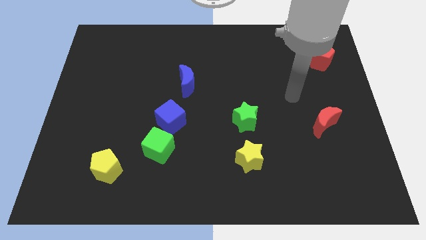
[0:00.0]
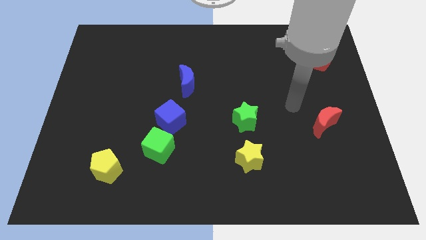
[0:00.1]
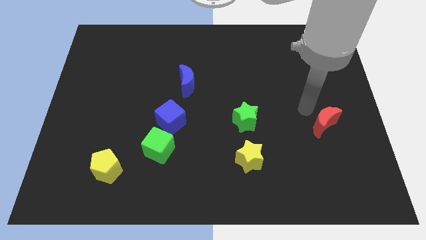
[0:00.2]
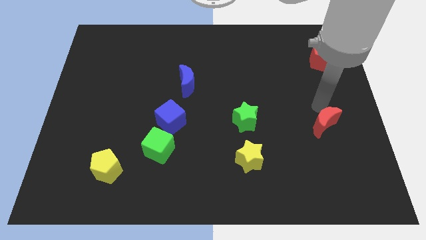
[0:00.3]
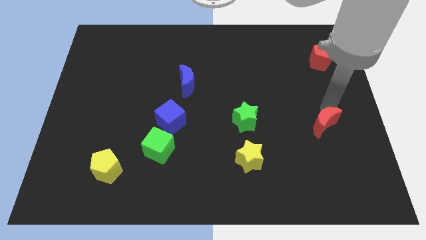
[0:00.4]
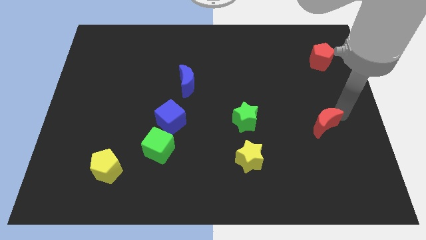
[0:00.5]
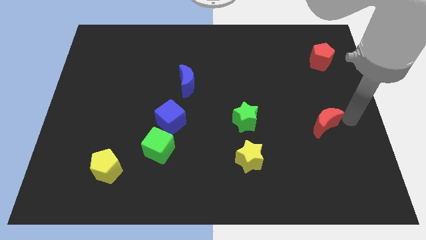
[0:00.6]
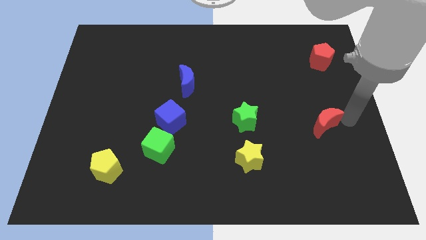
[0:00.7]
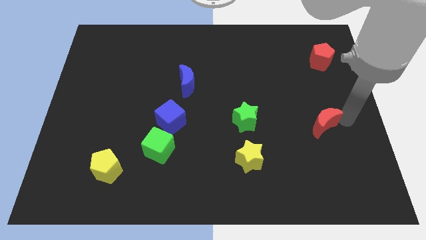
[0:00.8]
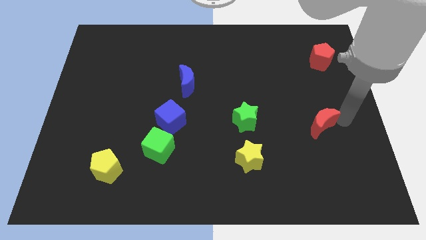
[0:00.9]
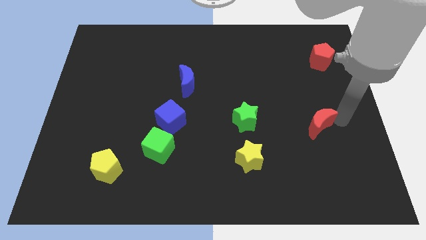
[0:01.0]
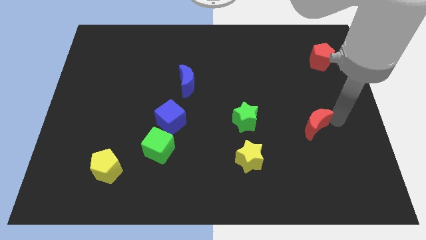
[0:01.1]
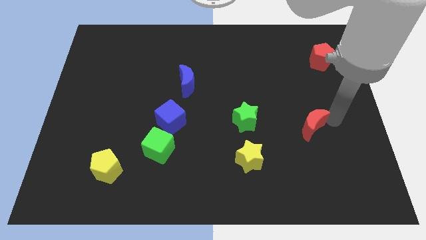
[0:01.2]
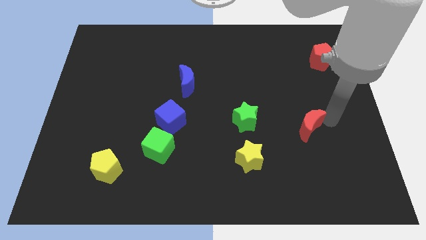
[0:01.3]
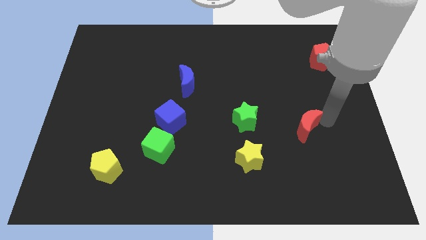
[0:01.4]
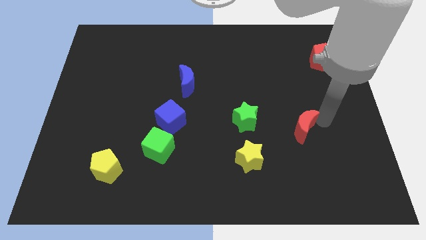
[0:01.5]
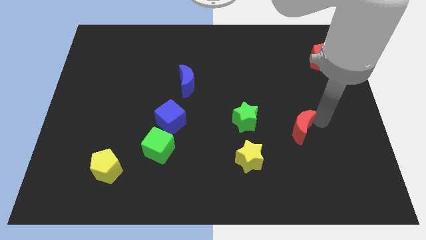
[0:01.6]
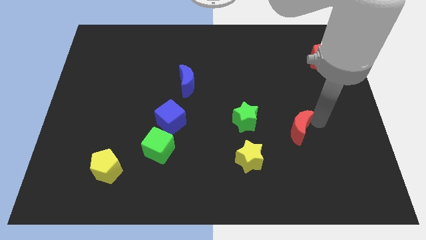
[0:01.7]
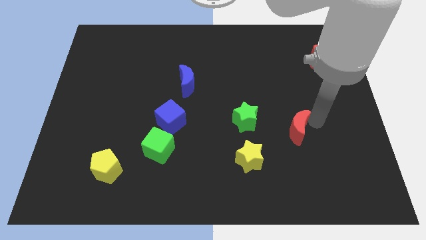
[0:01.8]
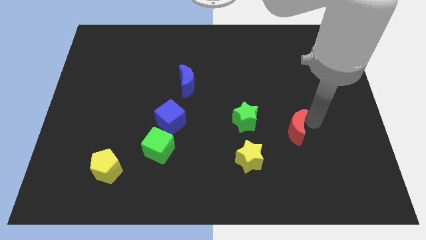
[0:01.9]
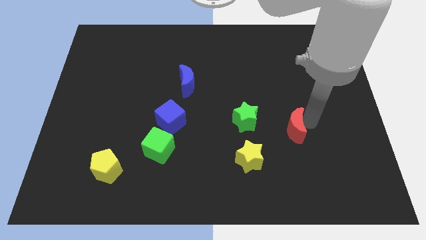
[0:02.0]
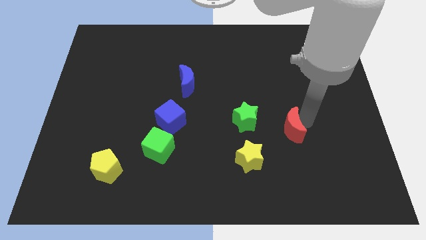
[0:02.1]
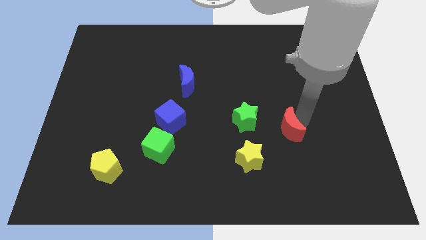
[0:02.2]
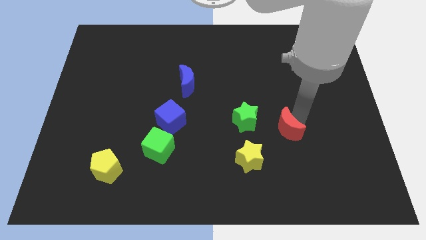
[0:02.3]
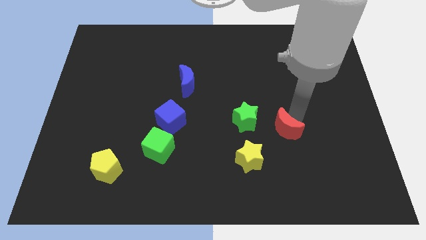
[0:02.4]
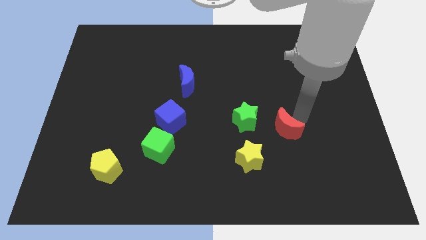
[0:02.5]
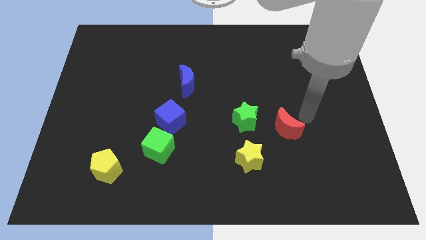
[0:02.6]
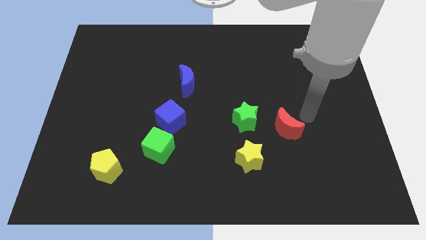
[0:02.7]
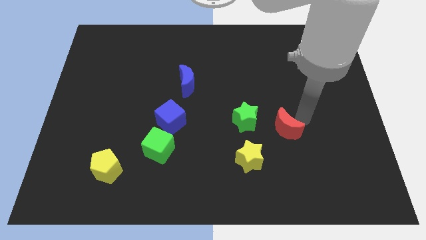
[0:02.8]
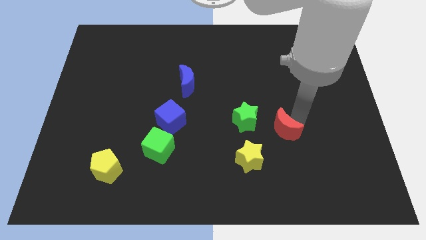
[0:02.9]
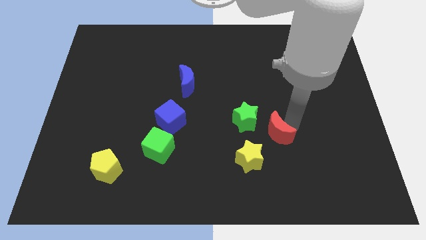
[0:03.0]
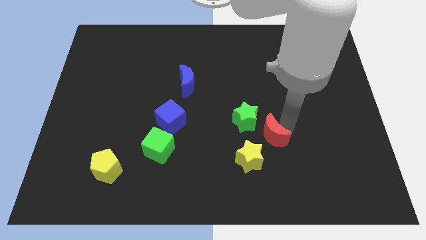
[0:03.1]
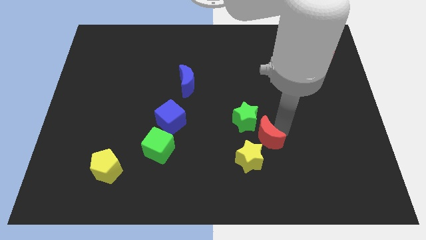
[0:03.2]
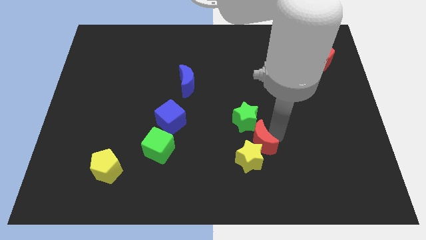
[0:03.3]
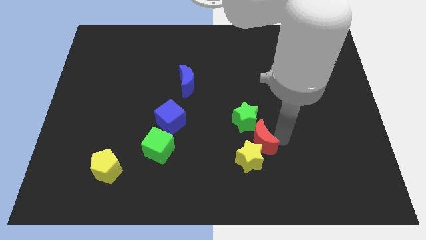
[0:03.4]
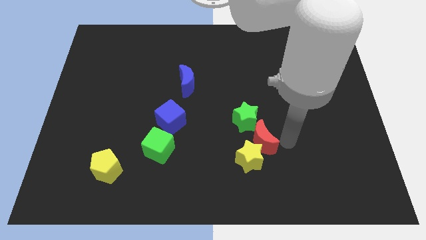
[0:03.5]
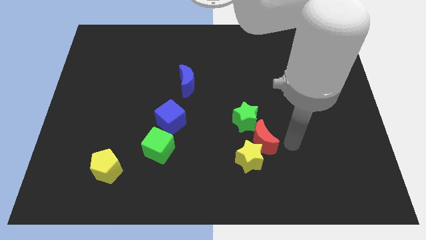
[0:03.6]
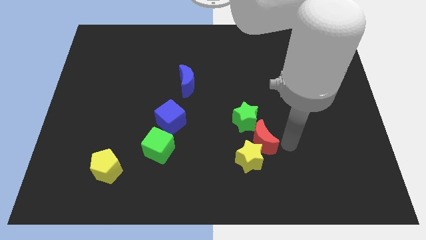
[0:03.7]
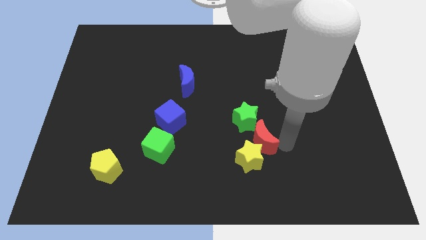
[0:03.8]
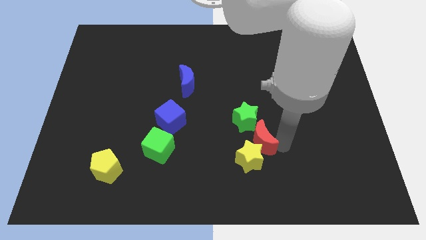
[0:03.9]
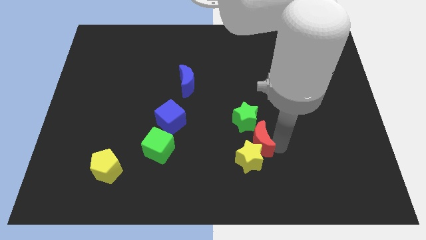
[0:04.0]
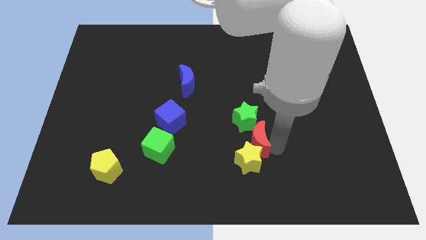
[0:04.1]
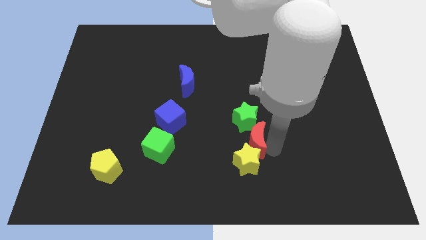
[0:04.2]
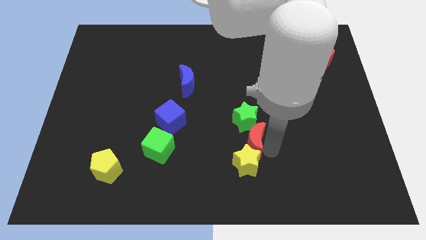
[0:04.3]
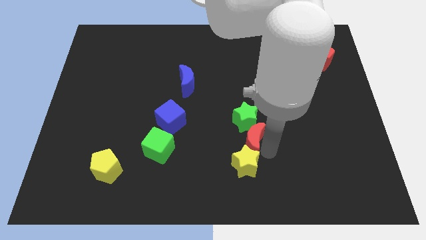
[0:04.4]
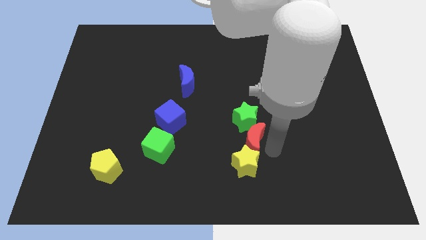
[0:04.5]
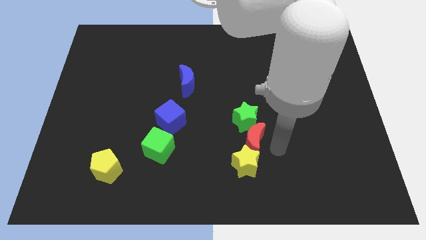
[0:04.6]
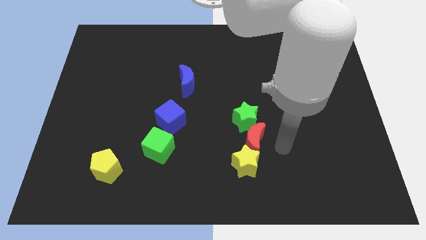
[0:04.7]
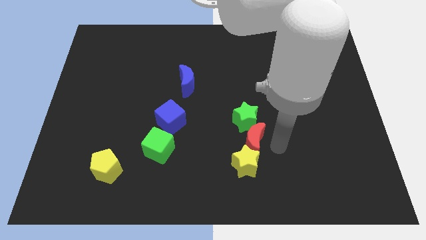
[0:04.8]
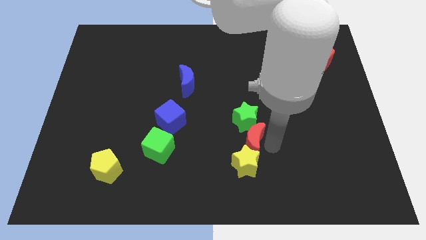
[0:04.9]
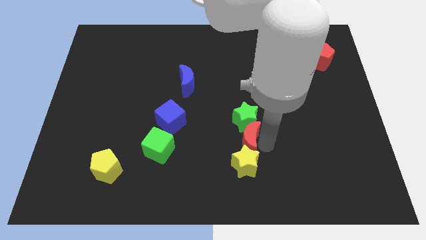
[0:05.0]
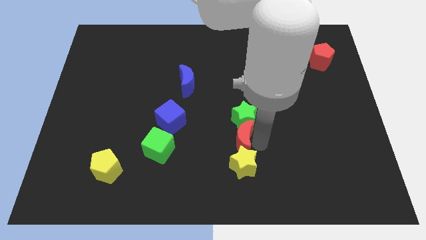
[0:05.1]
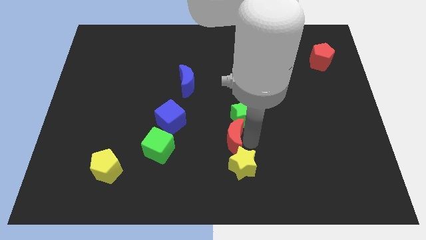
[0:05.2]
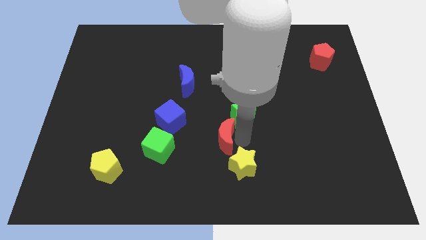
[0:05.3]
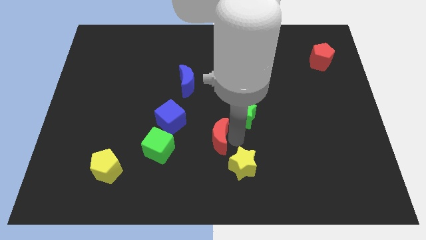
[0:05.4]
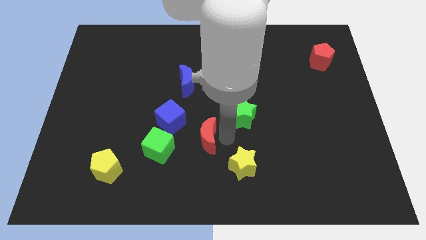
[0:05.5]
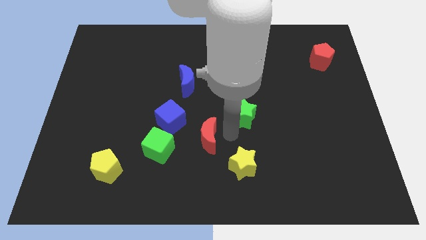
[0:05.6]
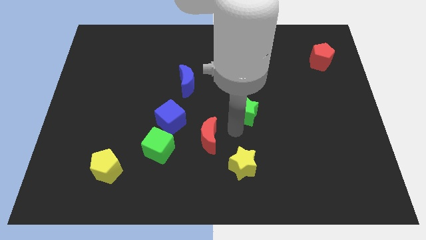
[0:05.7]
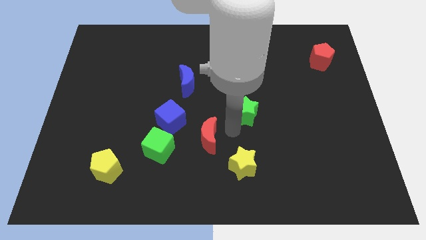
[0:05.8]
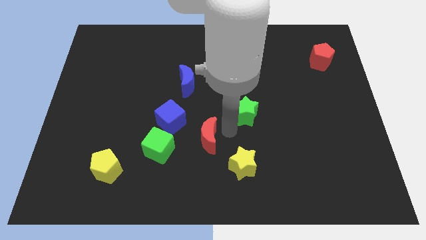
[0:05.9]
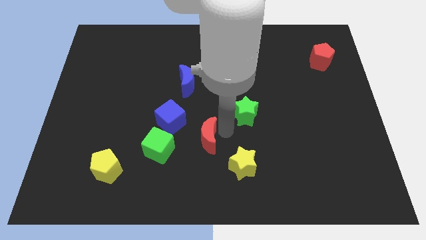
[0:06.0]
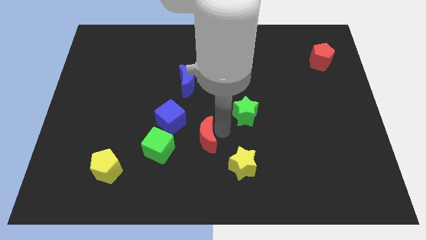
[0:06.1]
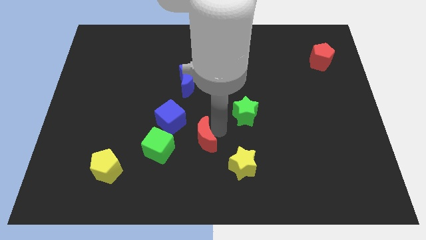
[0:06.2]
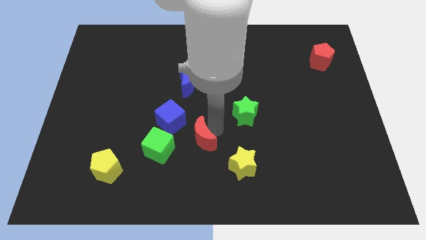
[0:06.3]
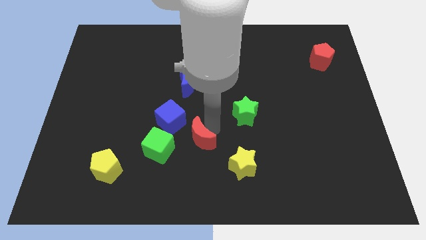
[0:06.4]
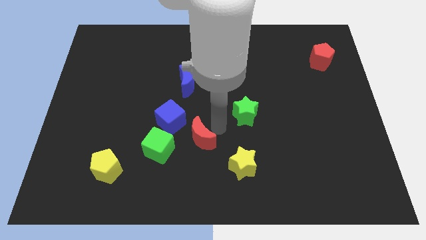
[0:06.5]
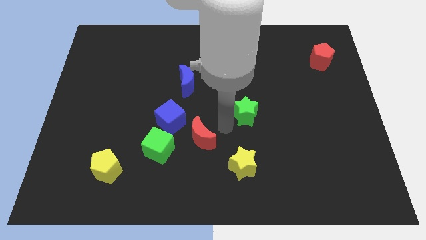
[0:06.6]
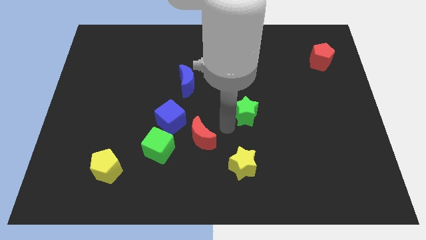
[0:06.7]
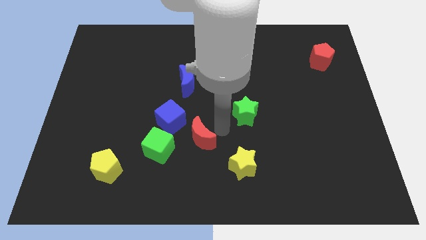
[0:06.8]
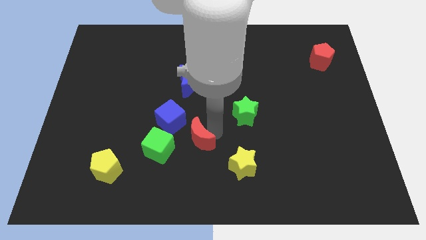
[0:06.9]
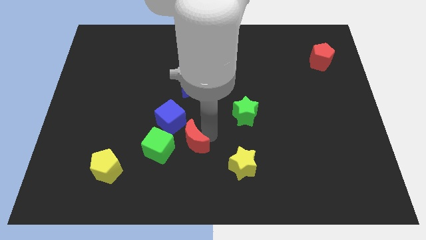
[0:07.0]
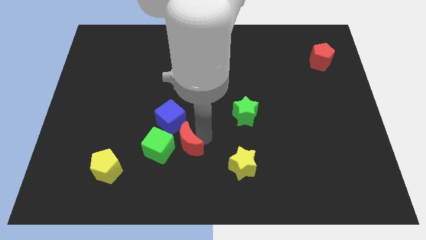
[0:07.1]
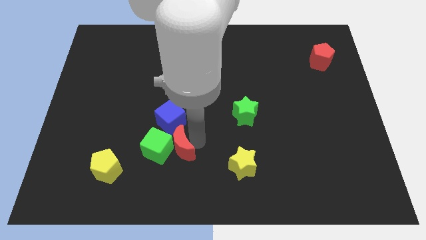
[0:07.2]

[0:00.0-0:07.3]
move the red moon towards the green cube

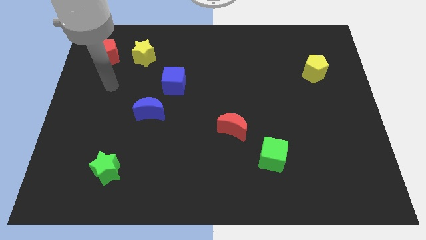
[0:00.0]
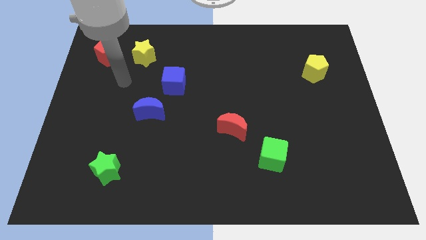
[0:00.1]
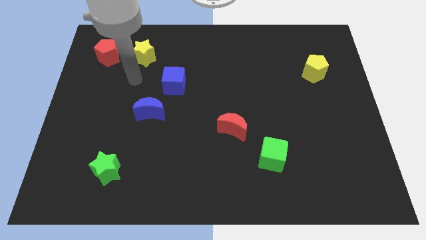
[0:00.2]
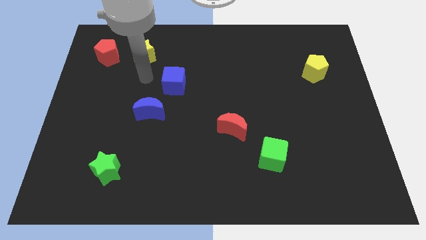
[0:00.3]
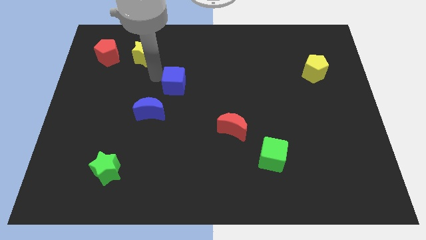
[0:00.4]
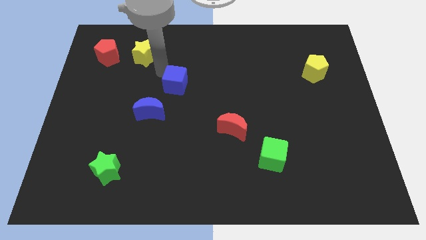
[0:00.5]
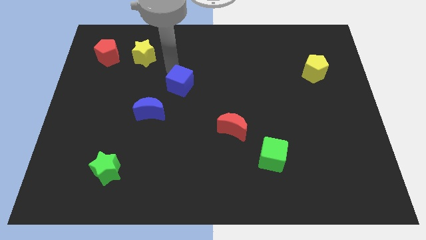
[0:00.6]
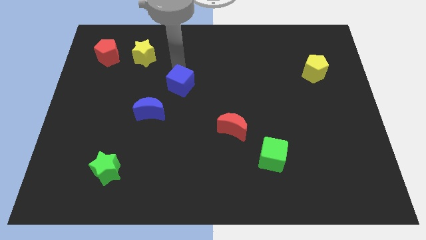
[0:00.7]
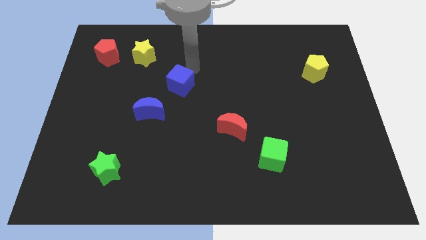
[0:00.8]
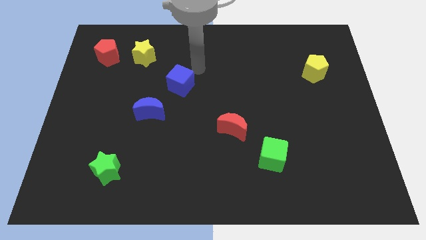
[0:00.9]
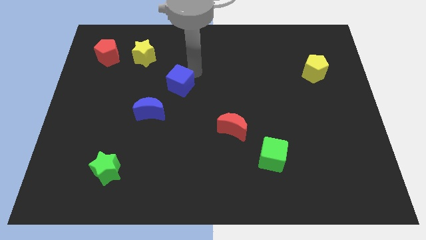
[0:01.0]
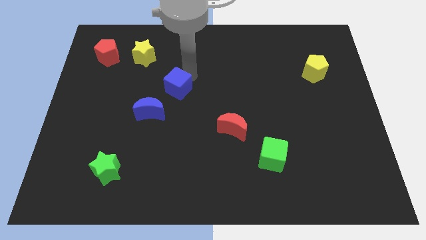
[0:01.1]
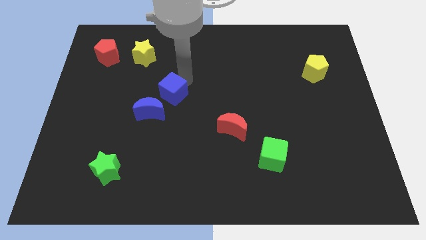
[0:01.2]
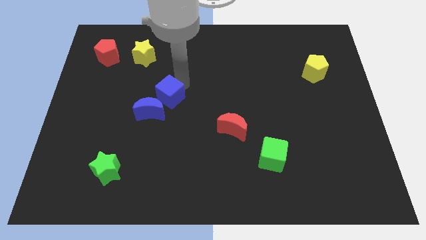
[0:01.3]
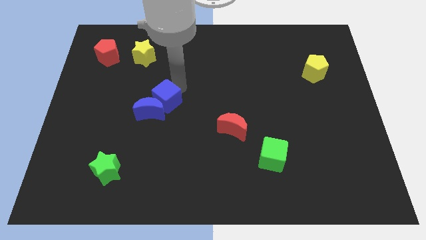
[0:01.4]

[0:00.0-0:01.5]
slide the blue cube towards the blue moon
